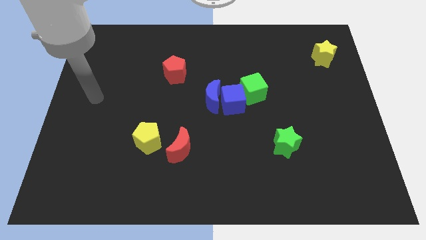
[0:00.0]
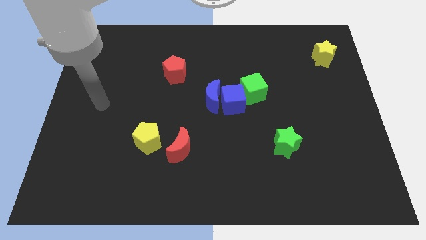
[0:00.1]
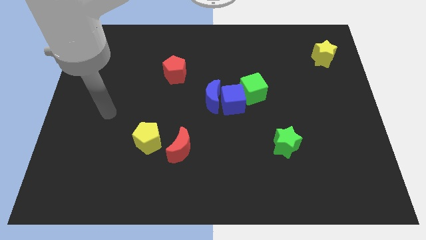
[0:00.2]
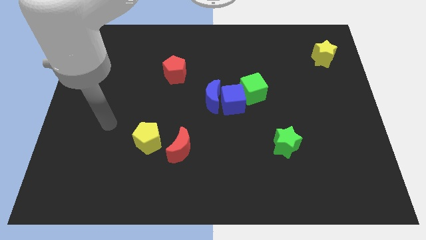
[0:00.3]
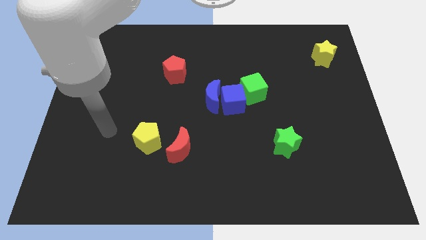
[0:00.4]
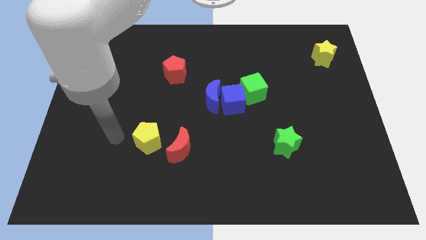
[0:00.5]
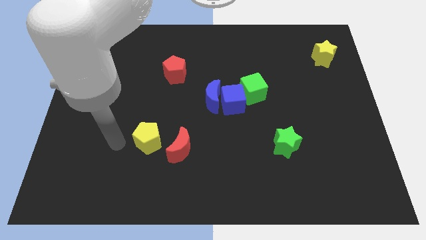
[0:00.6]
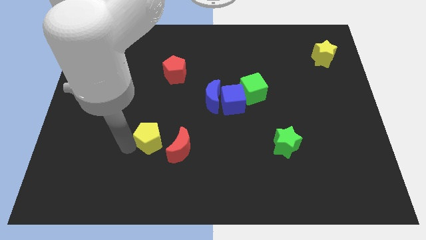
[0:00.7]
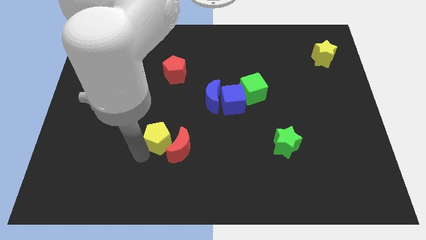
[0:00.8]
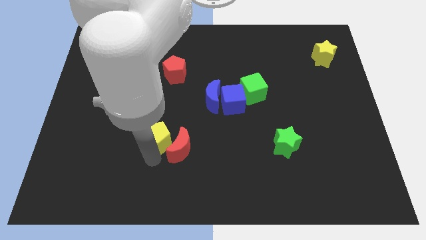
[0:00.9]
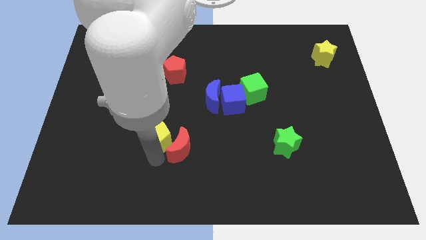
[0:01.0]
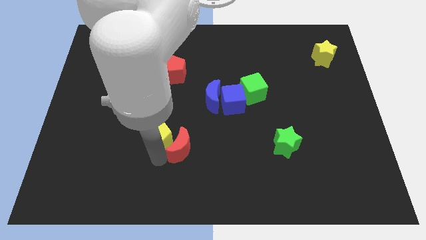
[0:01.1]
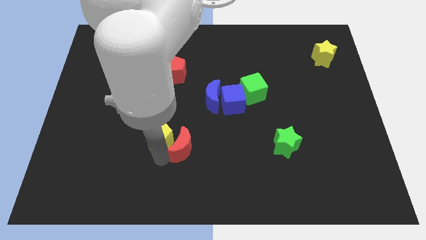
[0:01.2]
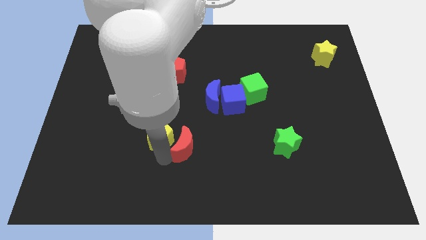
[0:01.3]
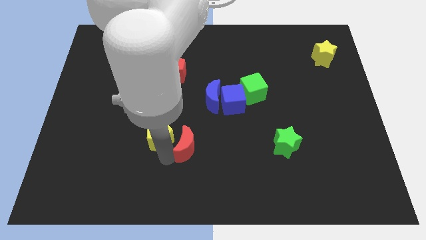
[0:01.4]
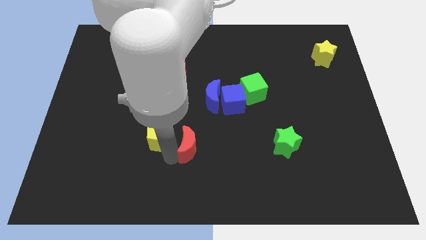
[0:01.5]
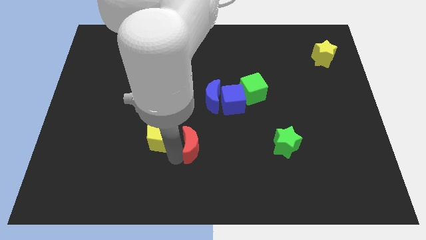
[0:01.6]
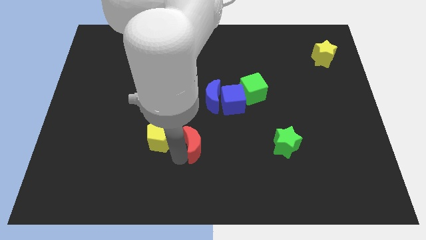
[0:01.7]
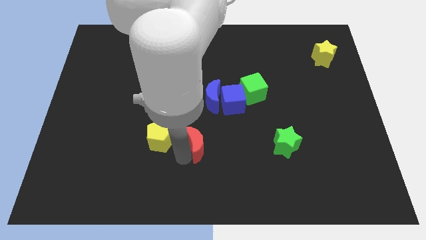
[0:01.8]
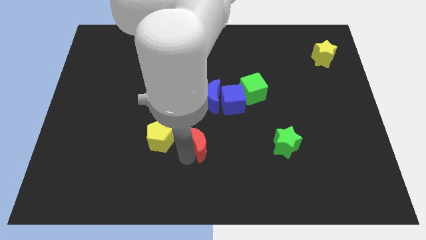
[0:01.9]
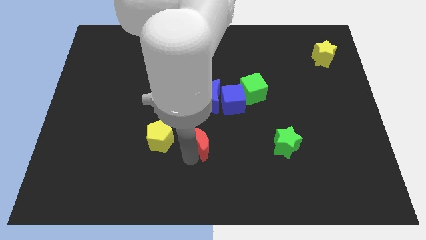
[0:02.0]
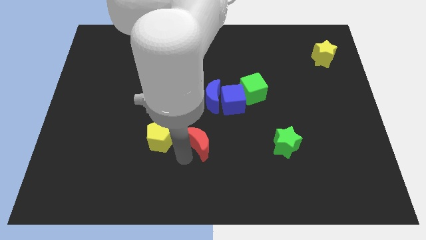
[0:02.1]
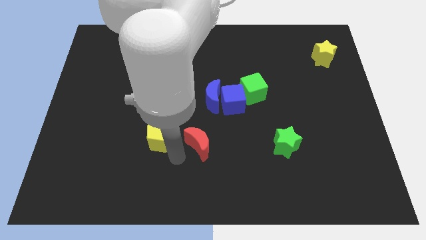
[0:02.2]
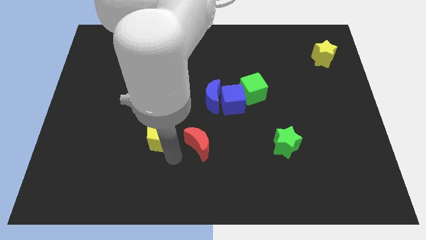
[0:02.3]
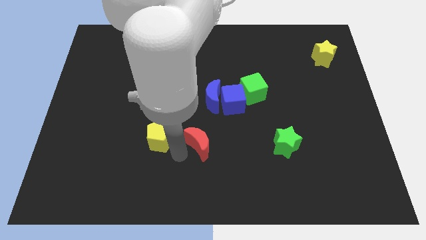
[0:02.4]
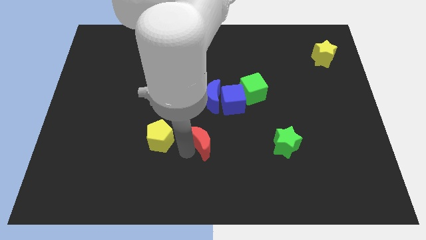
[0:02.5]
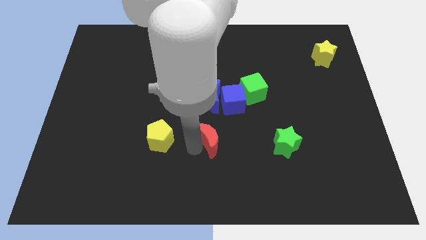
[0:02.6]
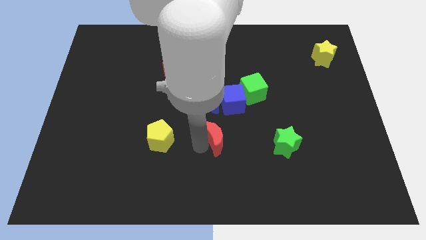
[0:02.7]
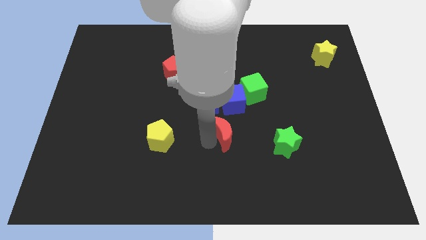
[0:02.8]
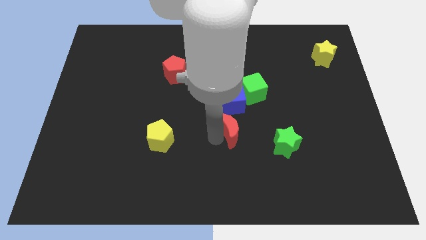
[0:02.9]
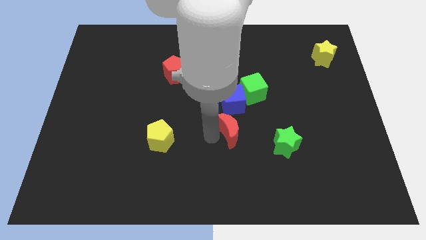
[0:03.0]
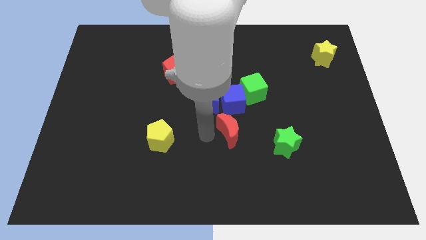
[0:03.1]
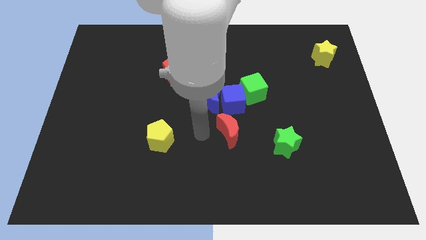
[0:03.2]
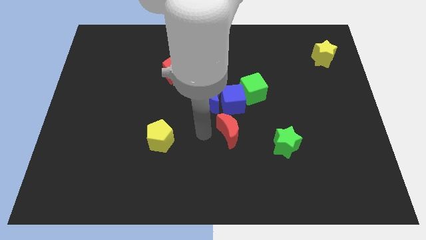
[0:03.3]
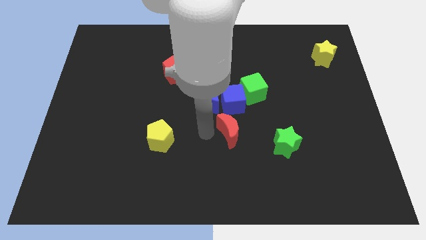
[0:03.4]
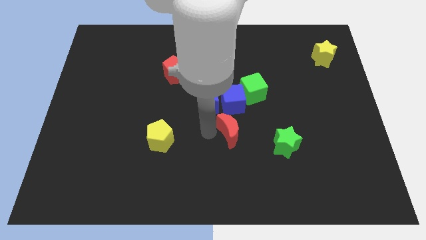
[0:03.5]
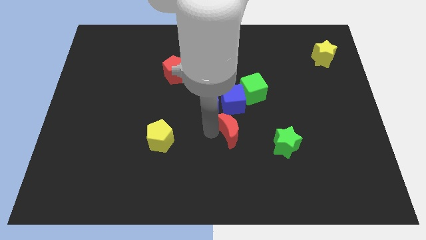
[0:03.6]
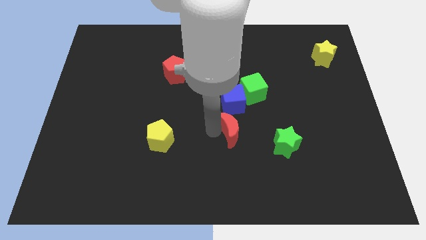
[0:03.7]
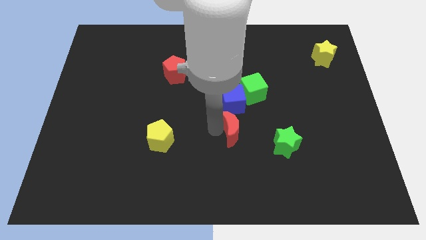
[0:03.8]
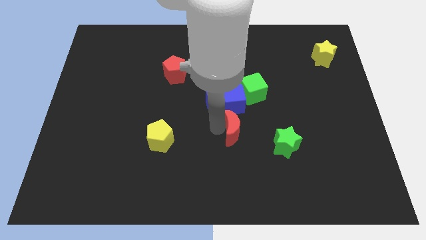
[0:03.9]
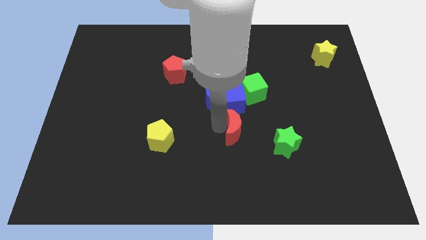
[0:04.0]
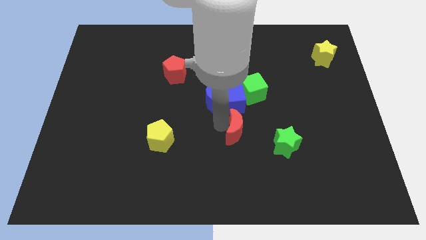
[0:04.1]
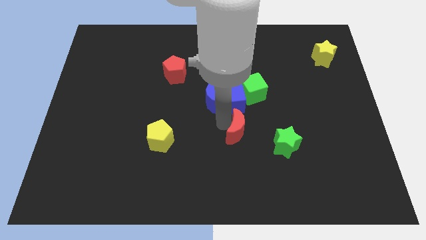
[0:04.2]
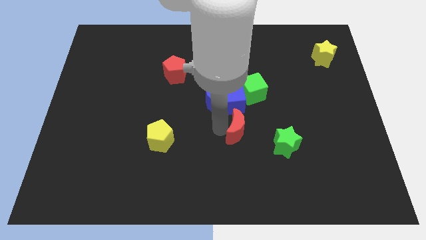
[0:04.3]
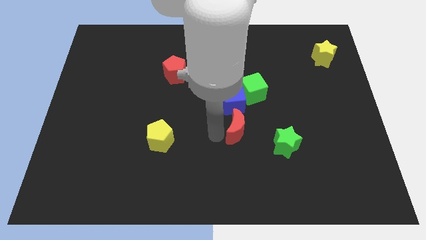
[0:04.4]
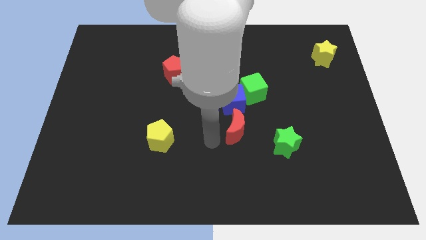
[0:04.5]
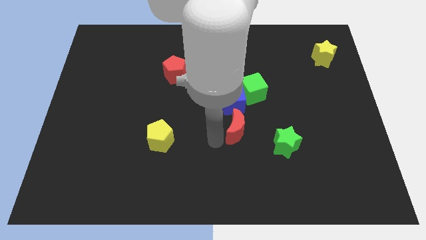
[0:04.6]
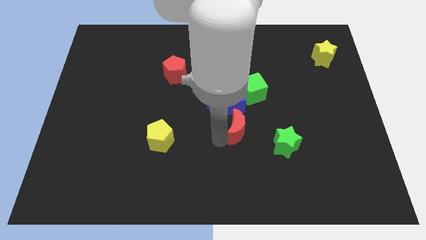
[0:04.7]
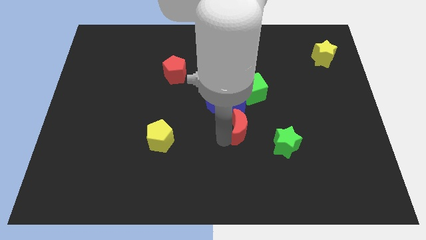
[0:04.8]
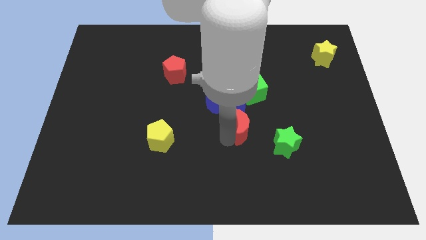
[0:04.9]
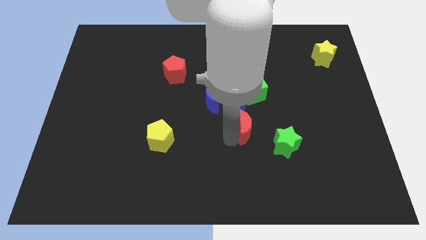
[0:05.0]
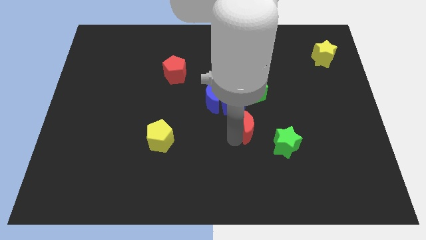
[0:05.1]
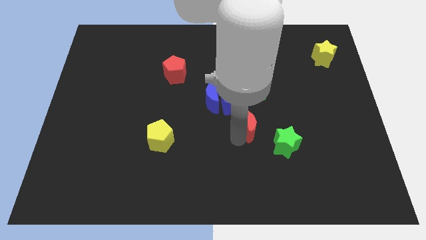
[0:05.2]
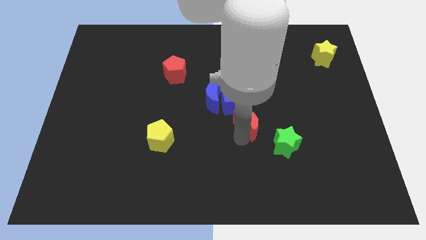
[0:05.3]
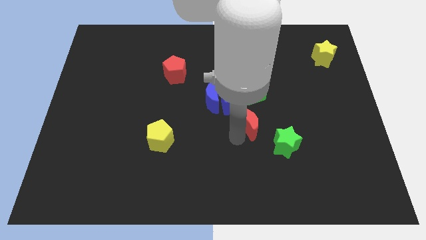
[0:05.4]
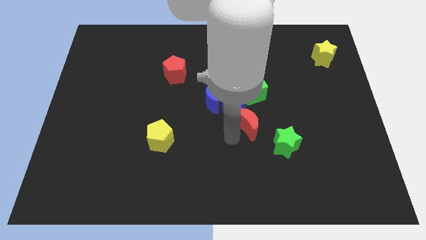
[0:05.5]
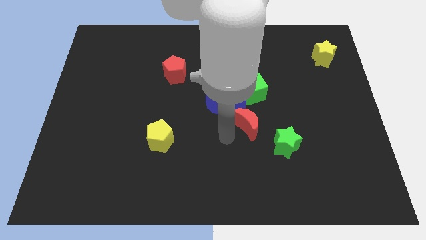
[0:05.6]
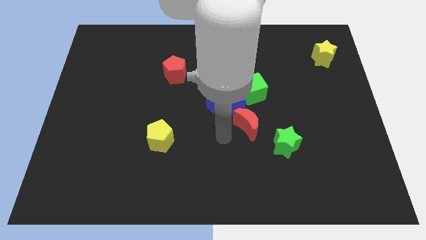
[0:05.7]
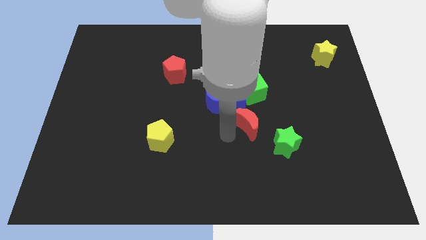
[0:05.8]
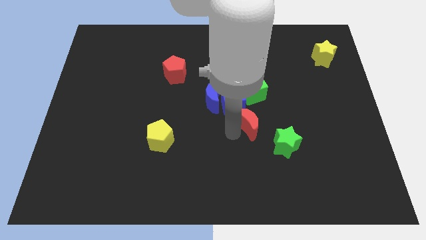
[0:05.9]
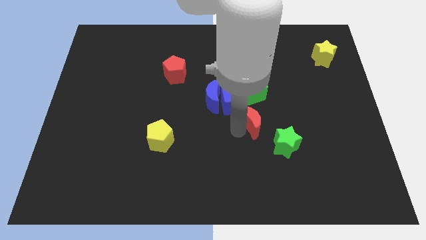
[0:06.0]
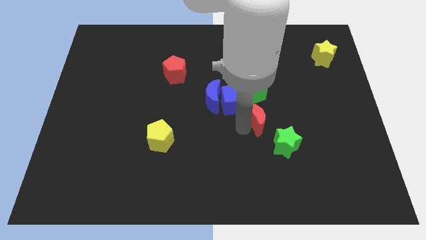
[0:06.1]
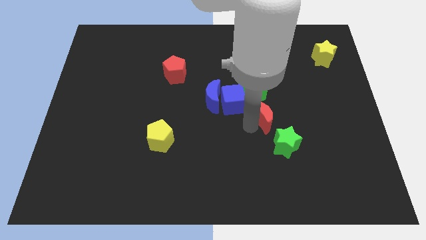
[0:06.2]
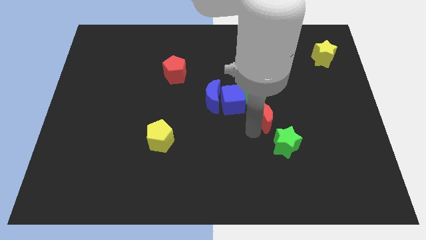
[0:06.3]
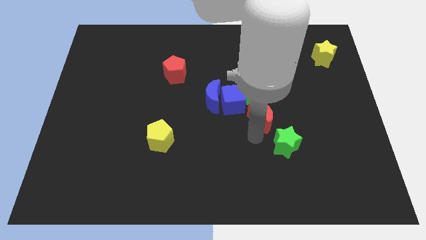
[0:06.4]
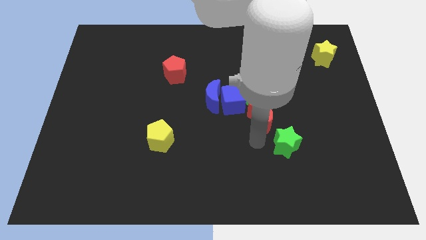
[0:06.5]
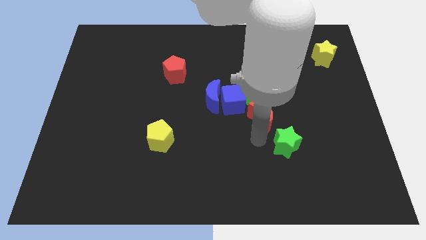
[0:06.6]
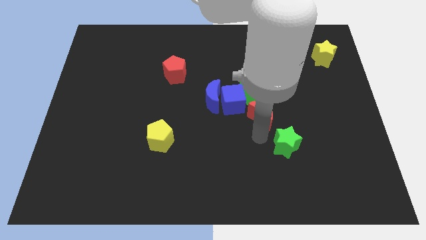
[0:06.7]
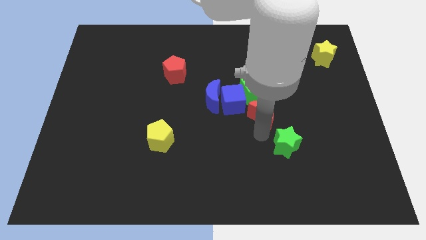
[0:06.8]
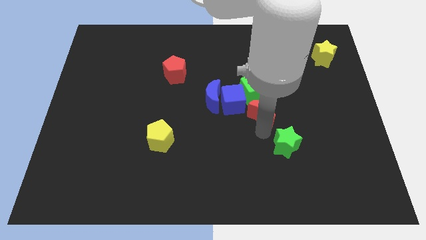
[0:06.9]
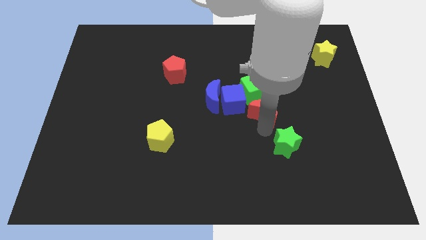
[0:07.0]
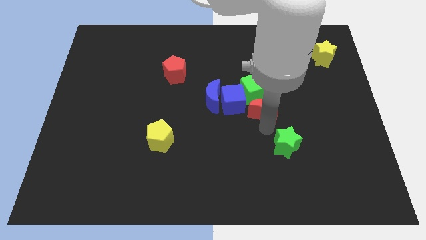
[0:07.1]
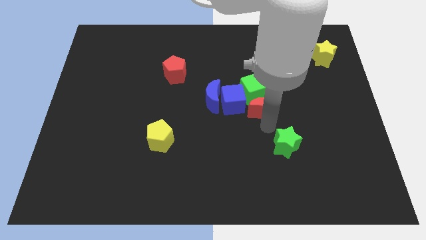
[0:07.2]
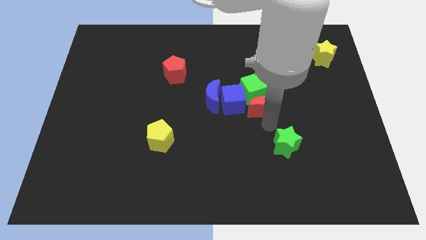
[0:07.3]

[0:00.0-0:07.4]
push the red moon towards the green cube
